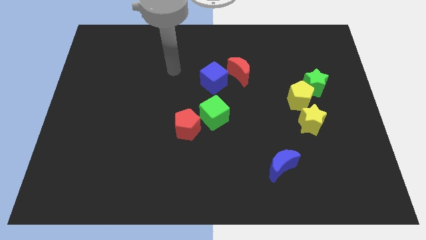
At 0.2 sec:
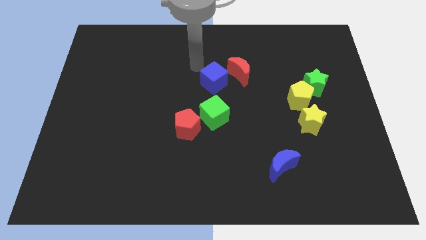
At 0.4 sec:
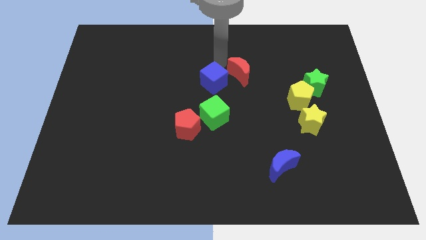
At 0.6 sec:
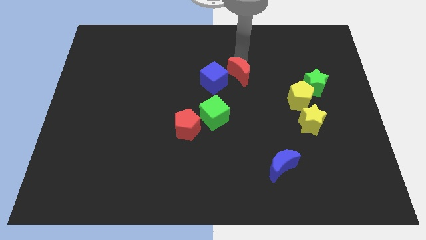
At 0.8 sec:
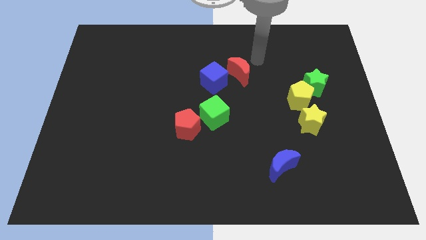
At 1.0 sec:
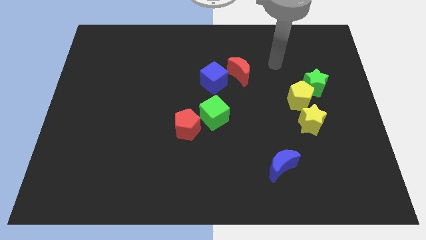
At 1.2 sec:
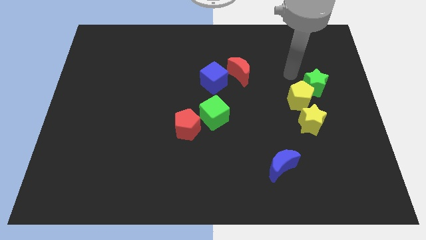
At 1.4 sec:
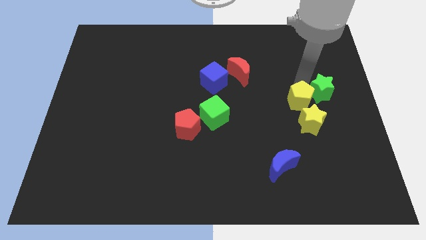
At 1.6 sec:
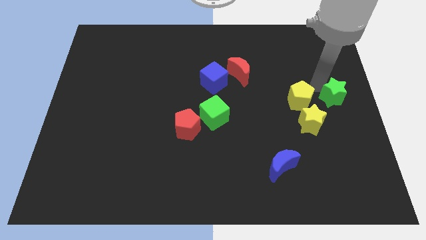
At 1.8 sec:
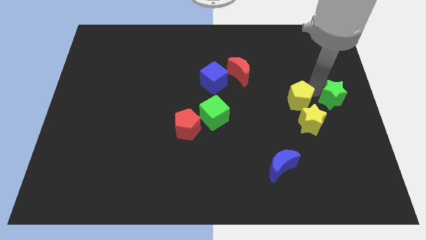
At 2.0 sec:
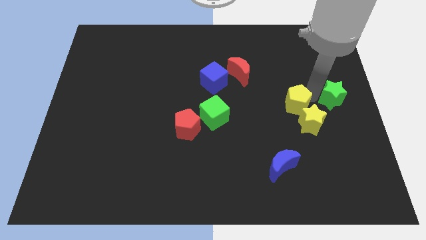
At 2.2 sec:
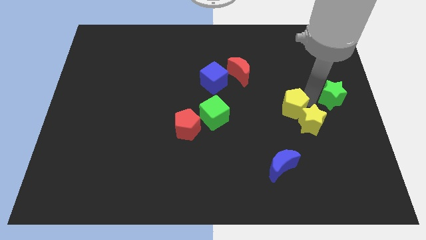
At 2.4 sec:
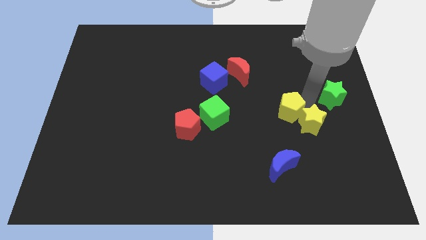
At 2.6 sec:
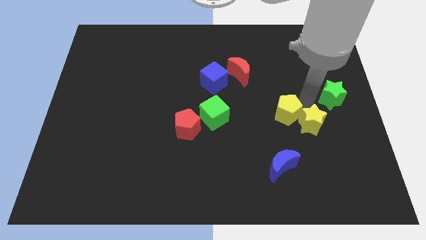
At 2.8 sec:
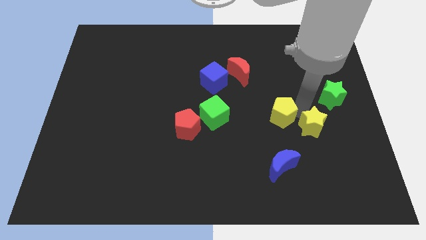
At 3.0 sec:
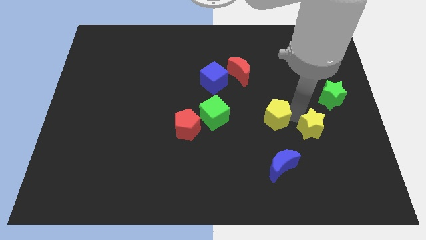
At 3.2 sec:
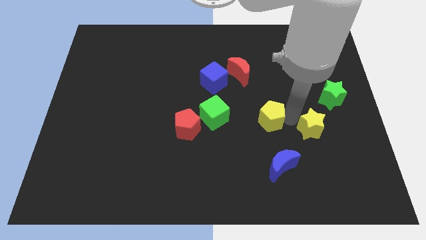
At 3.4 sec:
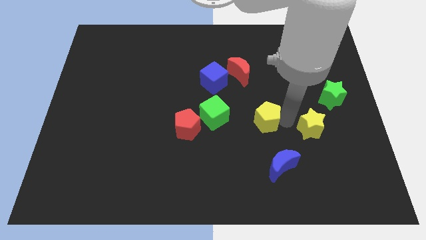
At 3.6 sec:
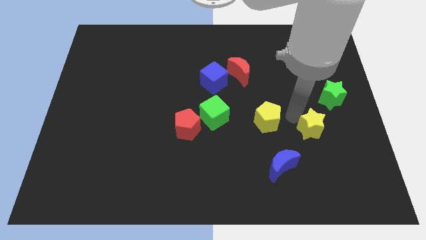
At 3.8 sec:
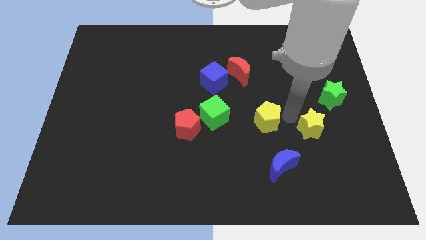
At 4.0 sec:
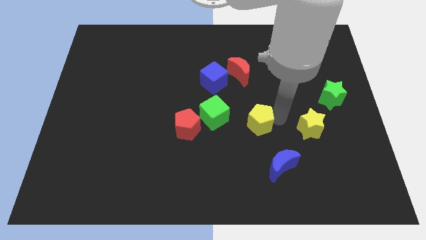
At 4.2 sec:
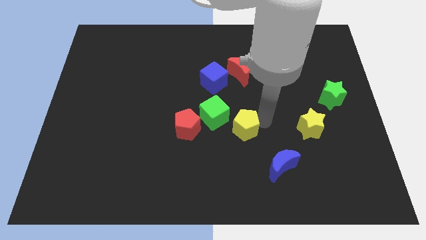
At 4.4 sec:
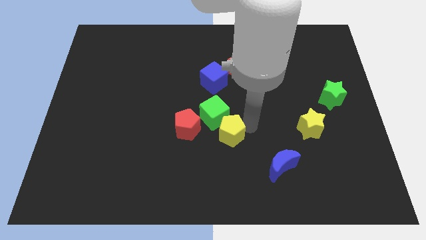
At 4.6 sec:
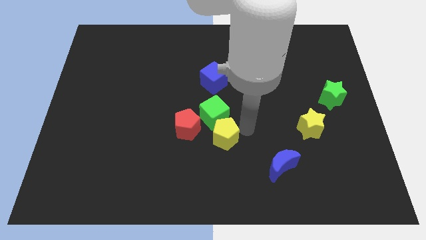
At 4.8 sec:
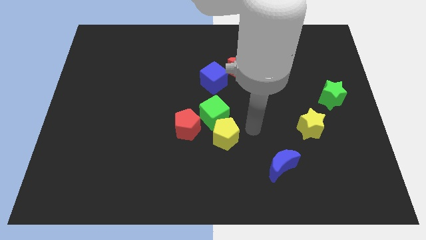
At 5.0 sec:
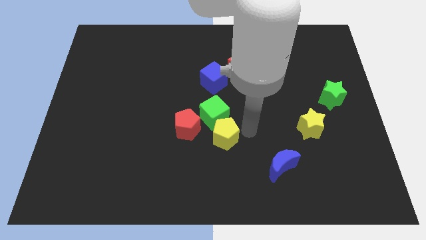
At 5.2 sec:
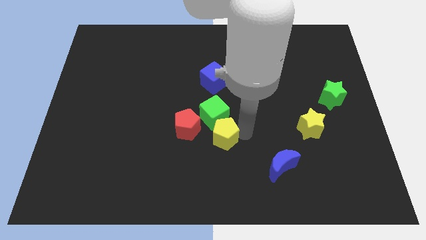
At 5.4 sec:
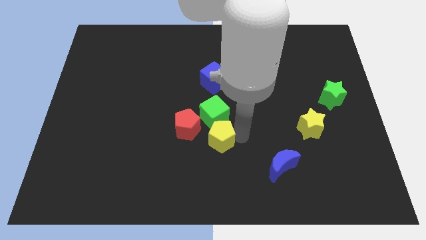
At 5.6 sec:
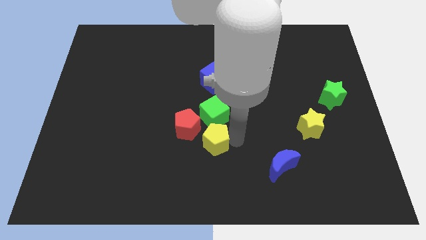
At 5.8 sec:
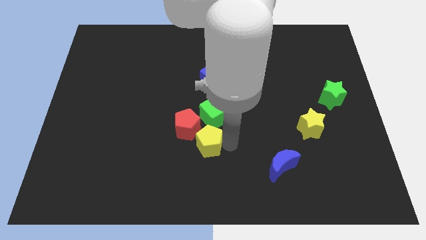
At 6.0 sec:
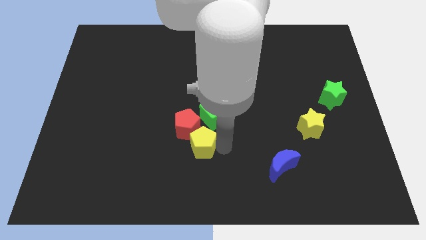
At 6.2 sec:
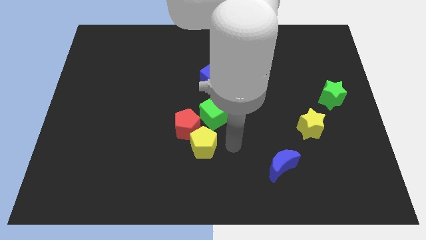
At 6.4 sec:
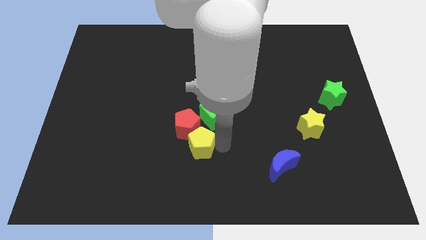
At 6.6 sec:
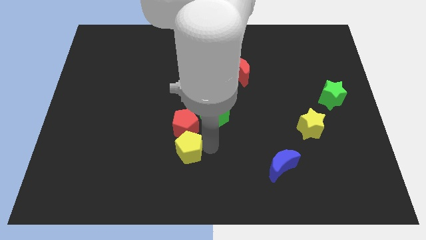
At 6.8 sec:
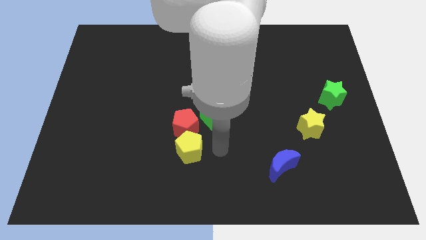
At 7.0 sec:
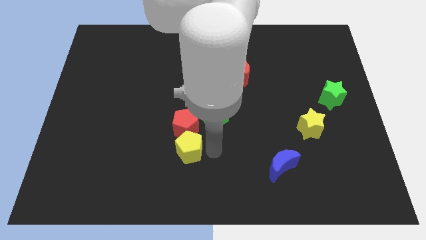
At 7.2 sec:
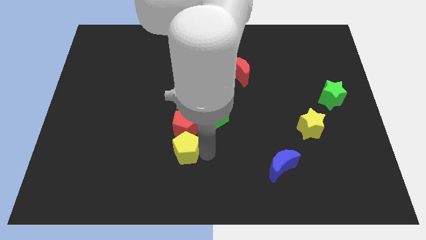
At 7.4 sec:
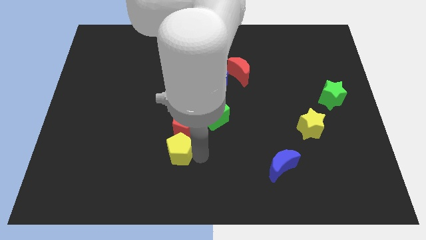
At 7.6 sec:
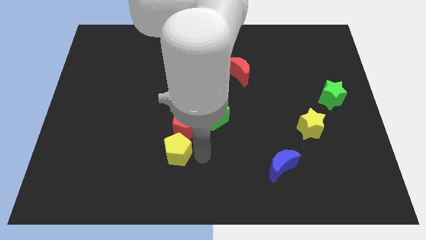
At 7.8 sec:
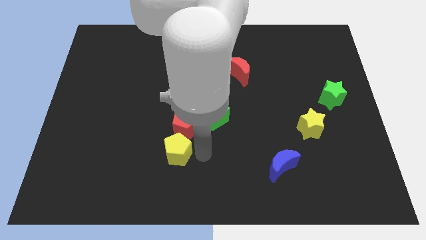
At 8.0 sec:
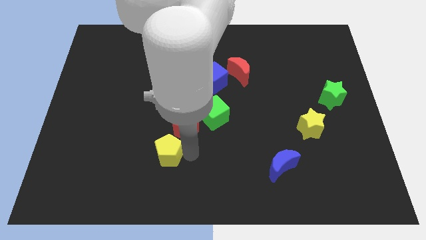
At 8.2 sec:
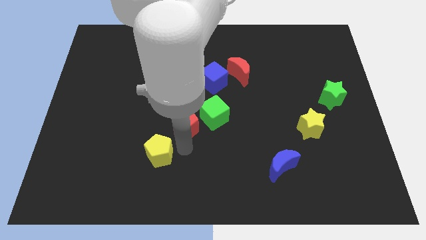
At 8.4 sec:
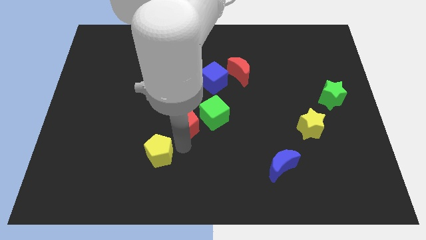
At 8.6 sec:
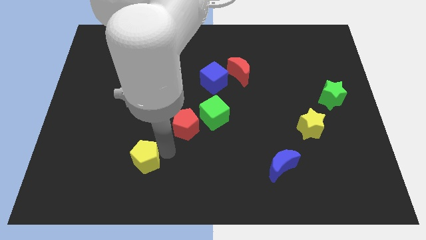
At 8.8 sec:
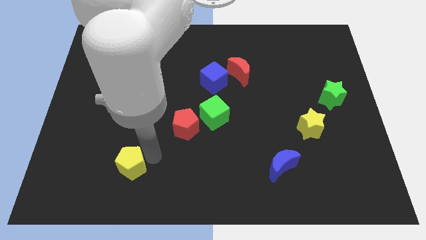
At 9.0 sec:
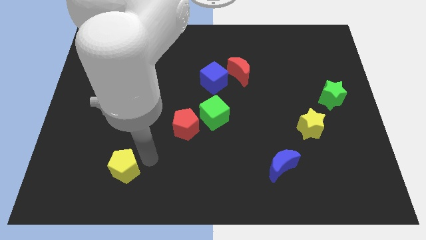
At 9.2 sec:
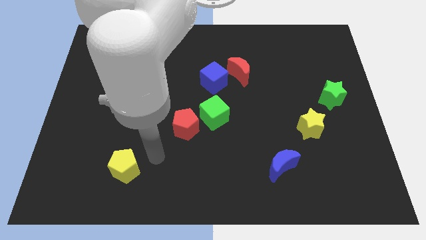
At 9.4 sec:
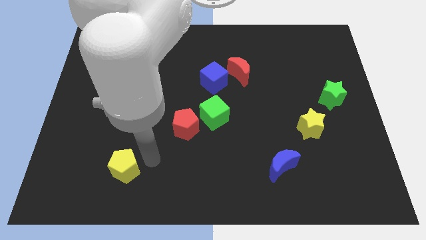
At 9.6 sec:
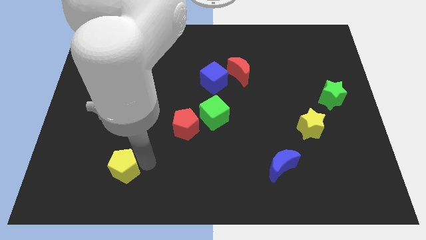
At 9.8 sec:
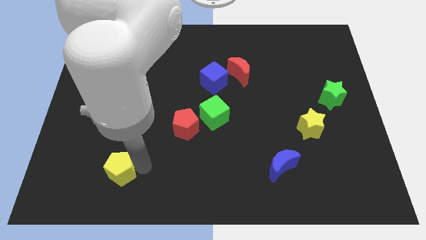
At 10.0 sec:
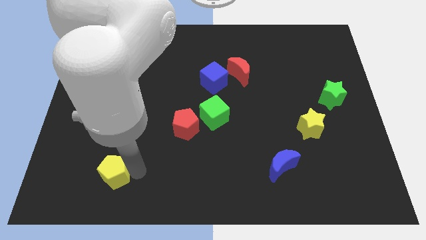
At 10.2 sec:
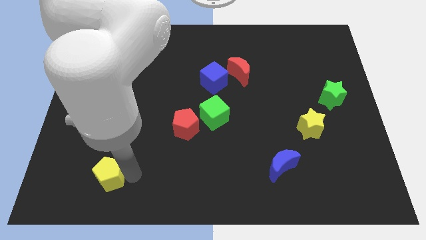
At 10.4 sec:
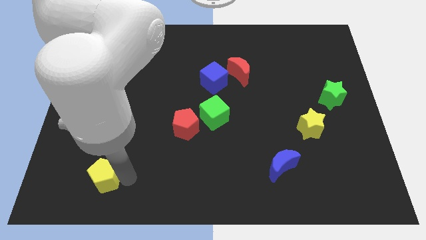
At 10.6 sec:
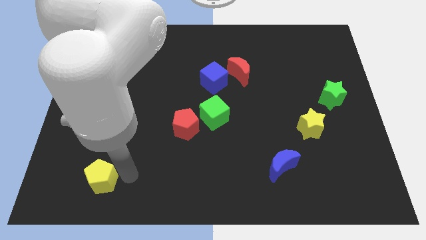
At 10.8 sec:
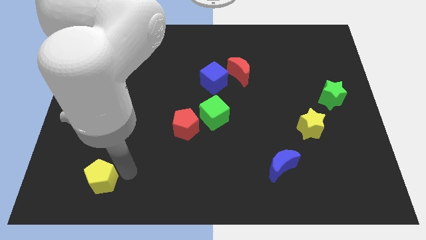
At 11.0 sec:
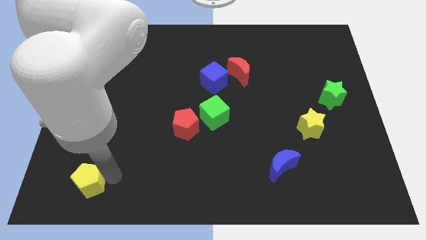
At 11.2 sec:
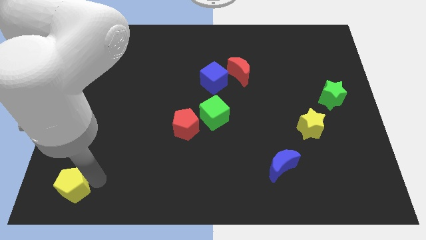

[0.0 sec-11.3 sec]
slide the yellow pentagon to the bottom left corner

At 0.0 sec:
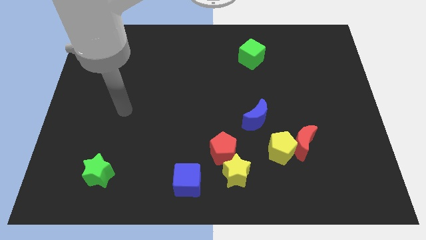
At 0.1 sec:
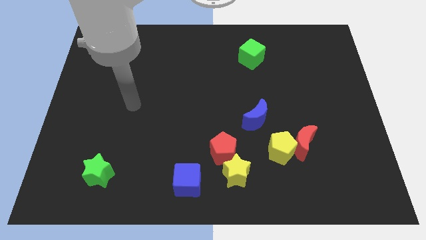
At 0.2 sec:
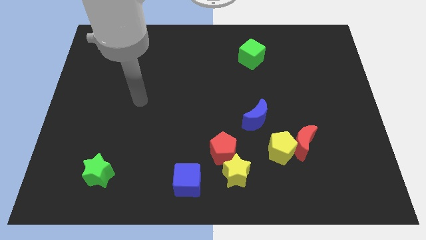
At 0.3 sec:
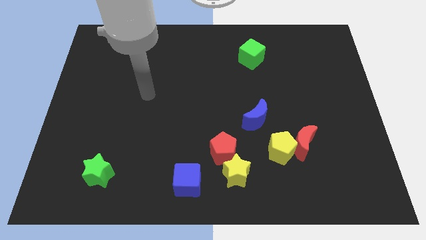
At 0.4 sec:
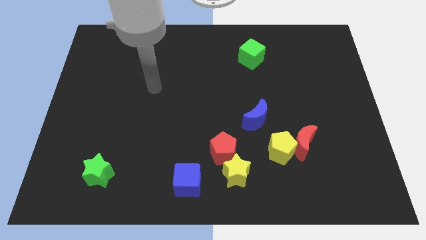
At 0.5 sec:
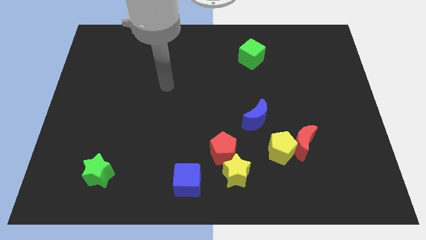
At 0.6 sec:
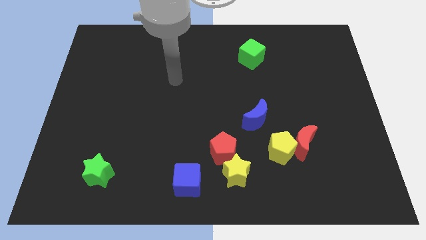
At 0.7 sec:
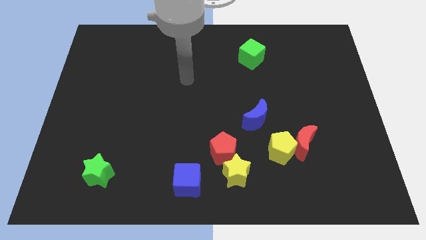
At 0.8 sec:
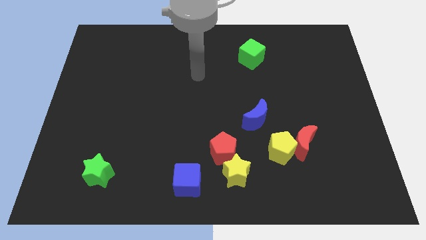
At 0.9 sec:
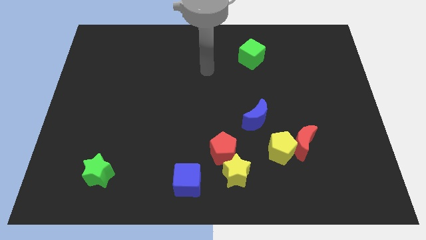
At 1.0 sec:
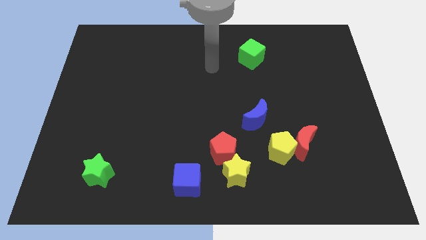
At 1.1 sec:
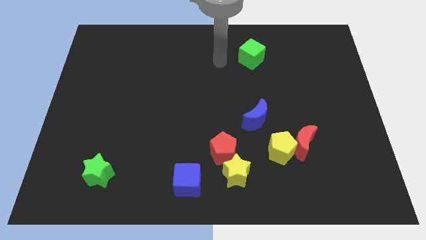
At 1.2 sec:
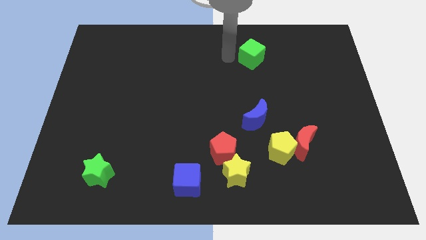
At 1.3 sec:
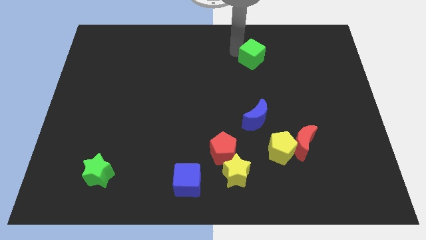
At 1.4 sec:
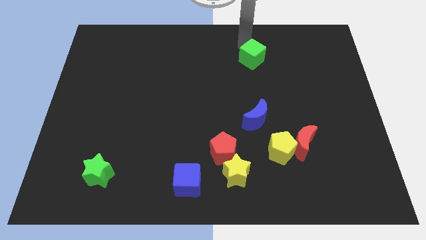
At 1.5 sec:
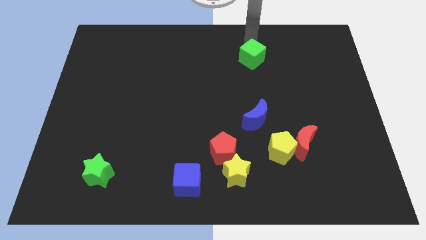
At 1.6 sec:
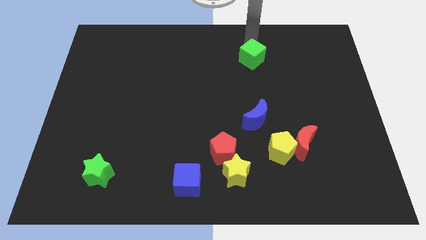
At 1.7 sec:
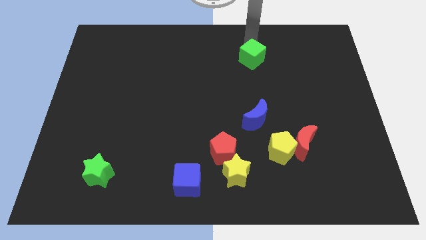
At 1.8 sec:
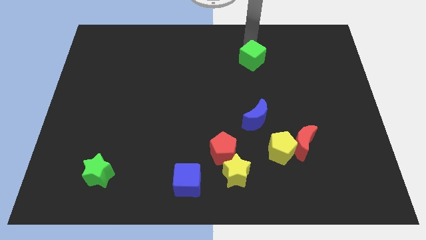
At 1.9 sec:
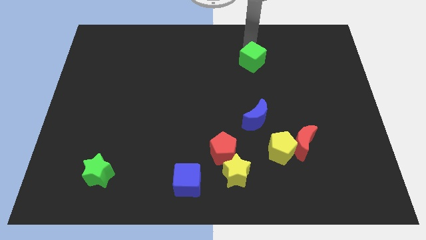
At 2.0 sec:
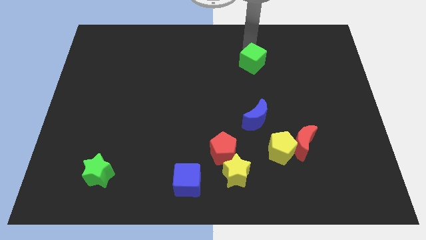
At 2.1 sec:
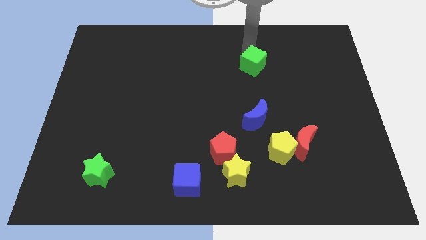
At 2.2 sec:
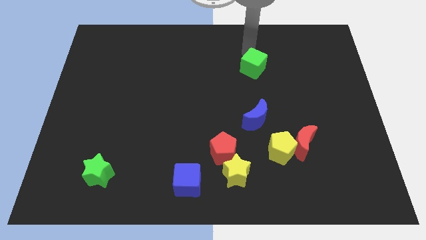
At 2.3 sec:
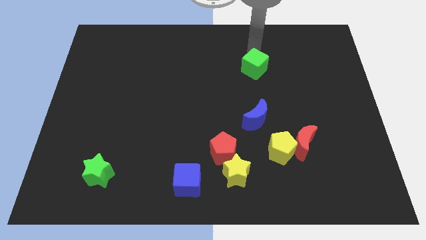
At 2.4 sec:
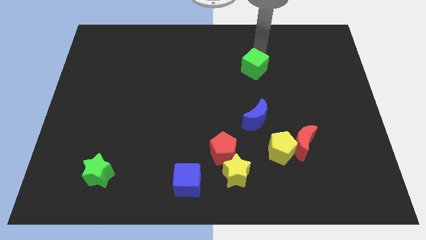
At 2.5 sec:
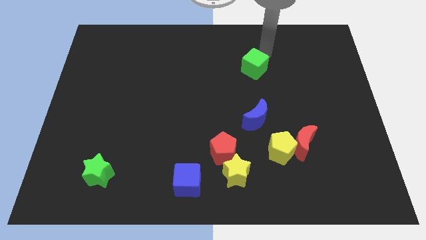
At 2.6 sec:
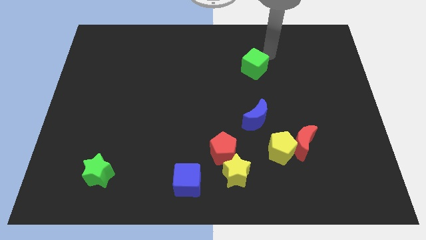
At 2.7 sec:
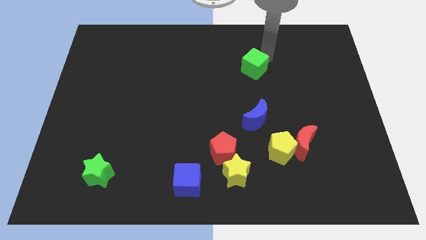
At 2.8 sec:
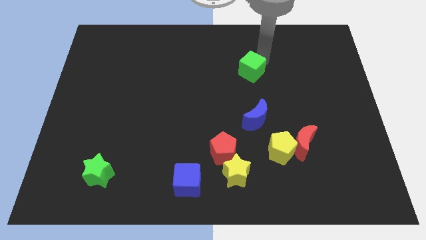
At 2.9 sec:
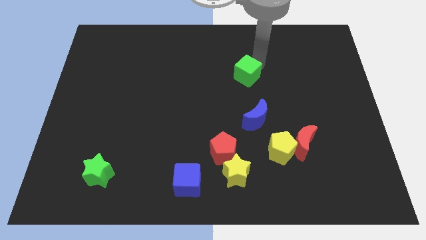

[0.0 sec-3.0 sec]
slide the green cube to the center of the board
